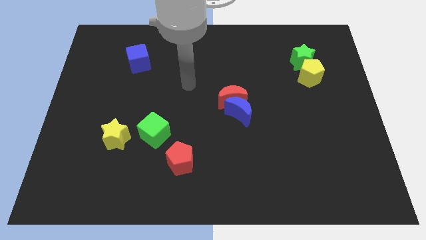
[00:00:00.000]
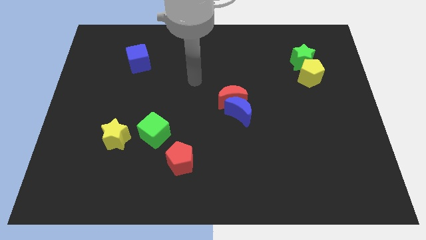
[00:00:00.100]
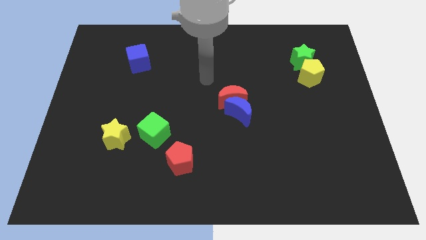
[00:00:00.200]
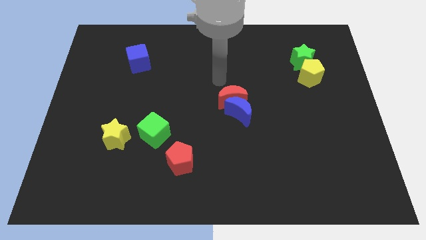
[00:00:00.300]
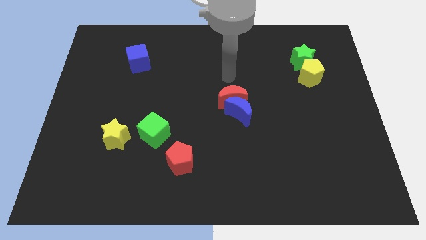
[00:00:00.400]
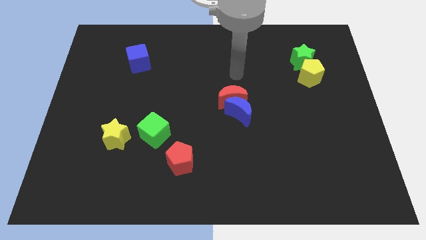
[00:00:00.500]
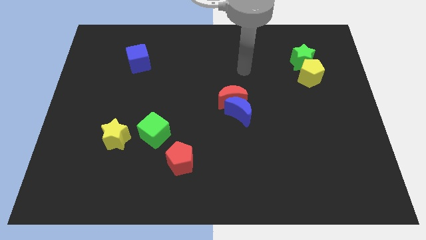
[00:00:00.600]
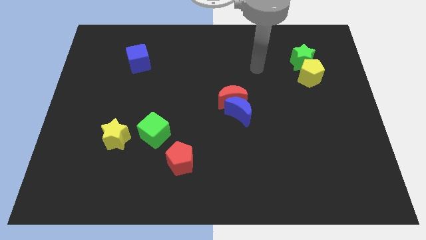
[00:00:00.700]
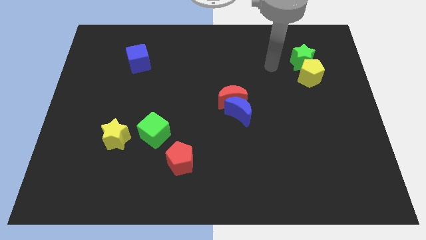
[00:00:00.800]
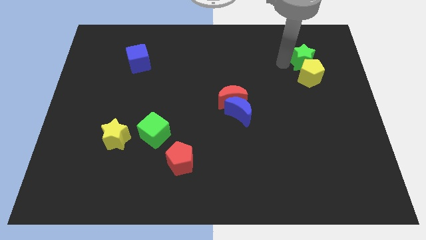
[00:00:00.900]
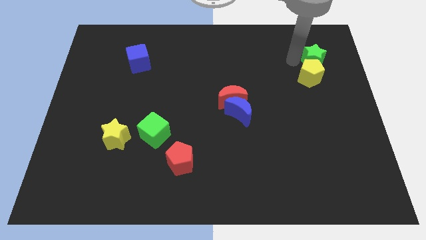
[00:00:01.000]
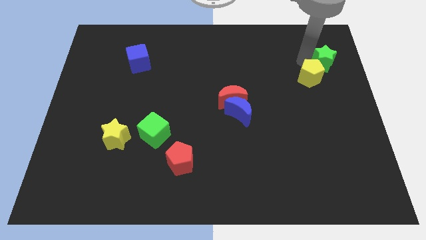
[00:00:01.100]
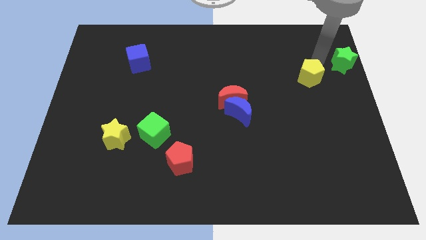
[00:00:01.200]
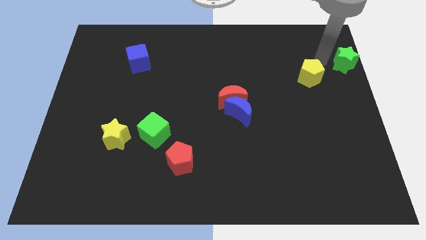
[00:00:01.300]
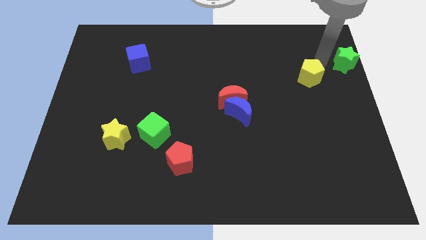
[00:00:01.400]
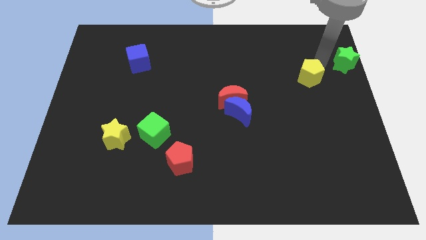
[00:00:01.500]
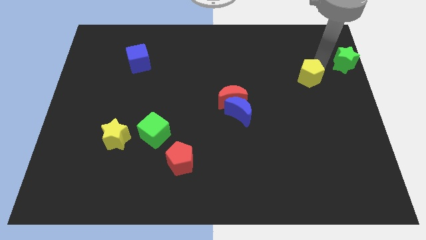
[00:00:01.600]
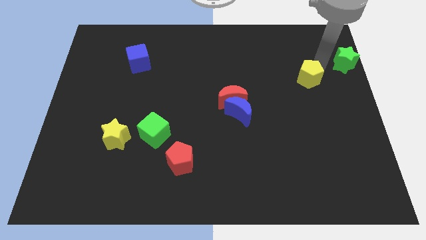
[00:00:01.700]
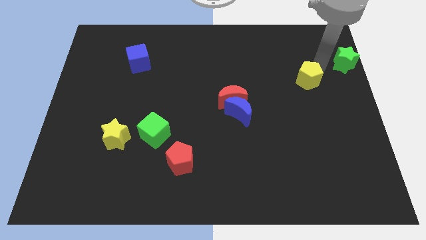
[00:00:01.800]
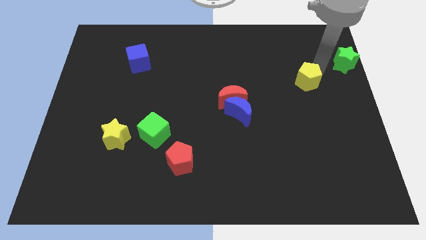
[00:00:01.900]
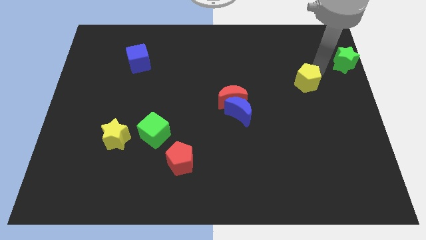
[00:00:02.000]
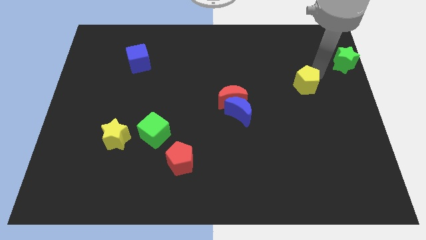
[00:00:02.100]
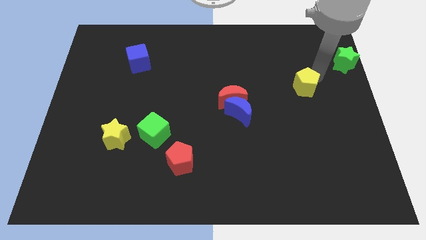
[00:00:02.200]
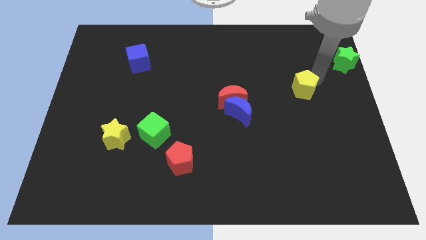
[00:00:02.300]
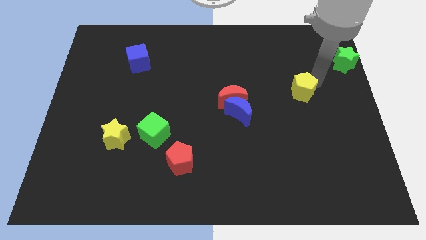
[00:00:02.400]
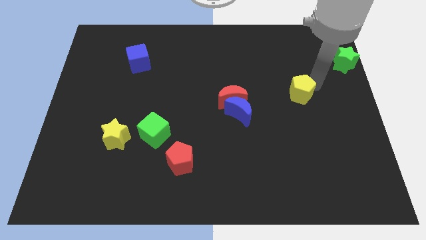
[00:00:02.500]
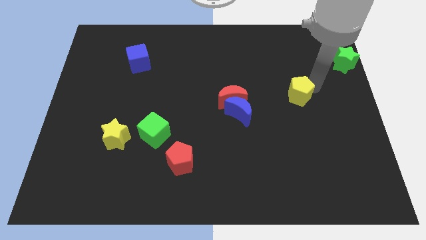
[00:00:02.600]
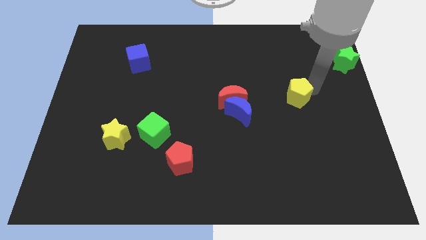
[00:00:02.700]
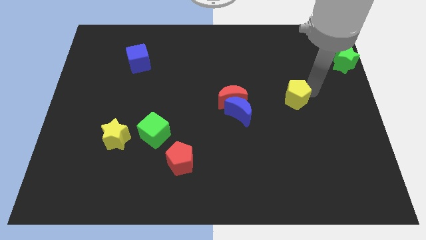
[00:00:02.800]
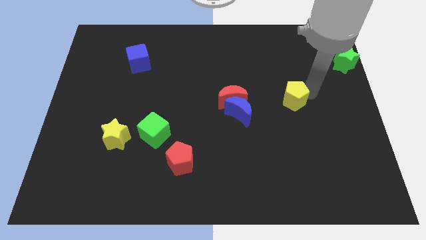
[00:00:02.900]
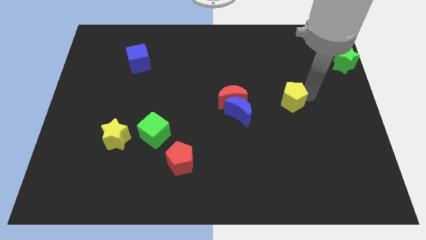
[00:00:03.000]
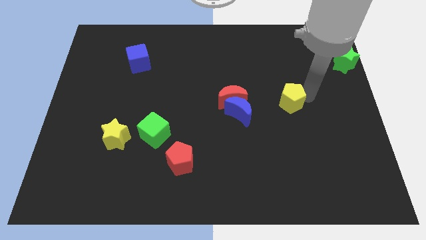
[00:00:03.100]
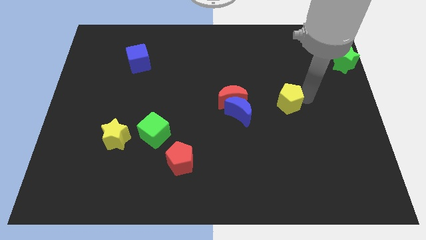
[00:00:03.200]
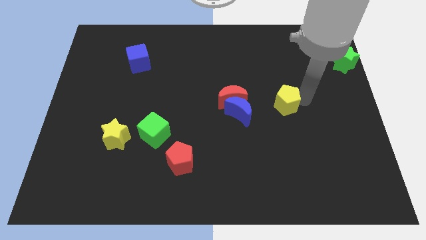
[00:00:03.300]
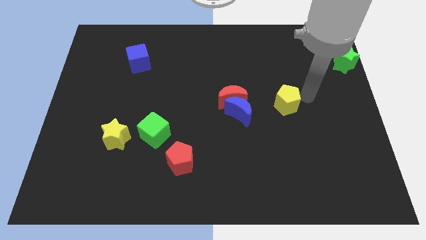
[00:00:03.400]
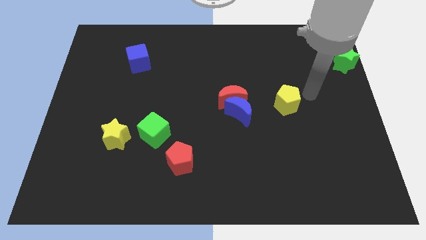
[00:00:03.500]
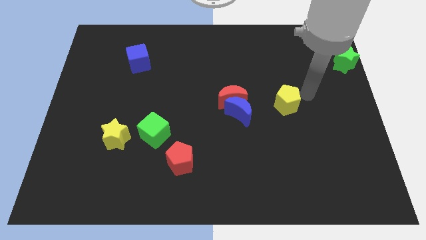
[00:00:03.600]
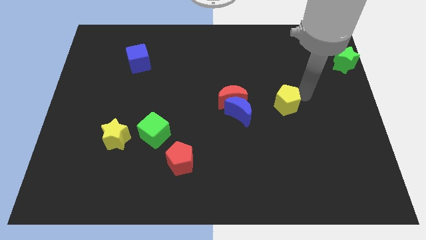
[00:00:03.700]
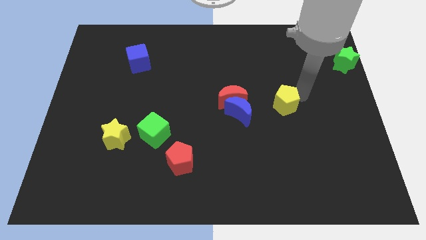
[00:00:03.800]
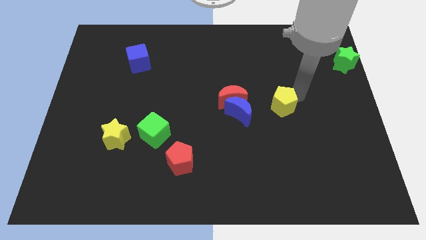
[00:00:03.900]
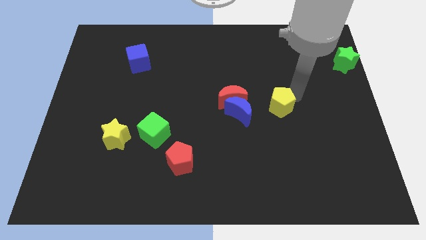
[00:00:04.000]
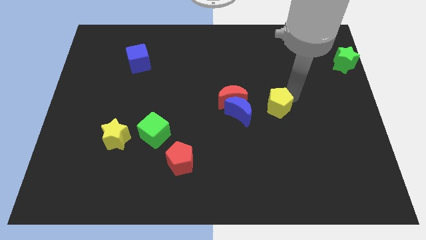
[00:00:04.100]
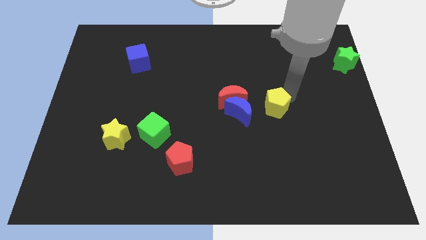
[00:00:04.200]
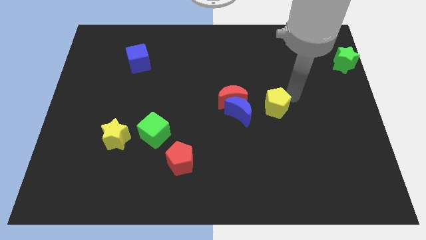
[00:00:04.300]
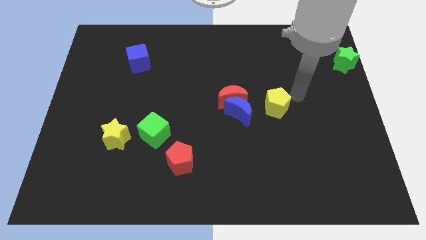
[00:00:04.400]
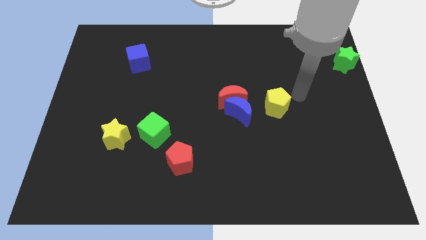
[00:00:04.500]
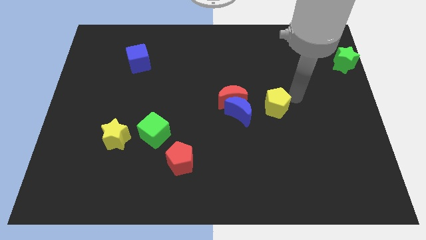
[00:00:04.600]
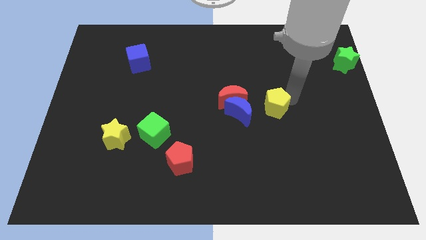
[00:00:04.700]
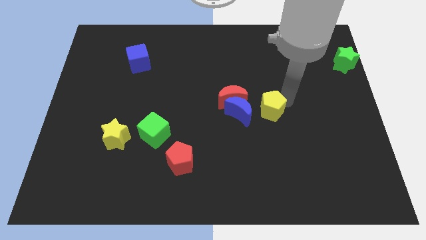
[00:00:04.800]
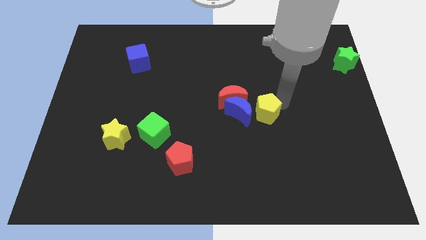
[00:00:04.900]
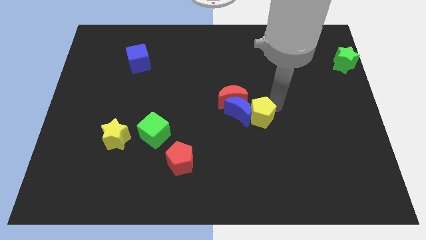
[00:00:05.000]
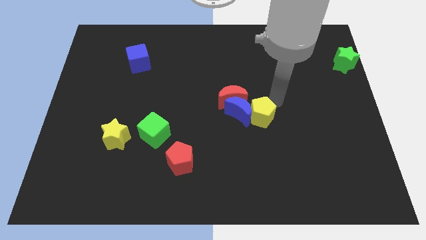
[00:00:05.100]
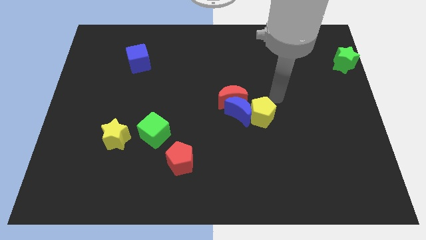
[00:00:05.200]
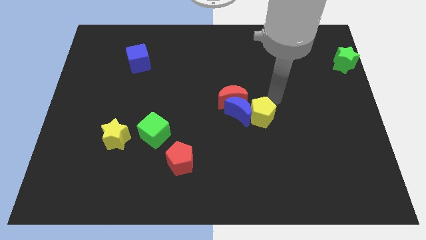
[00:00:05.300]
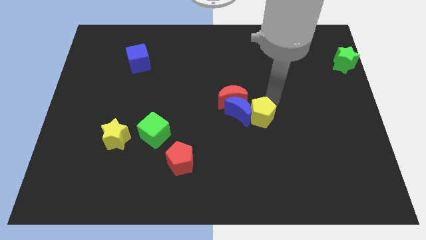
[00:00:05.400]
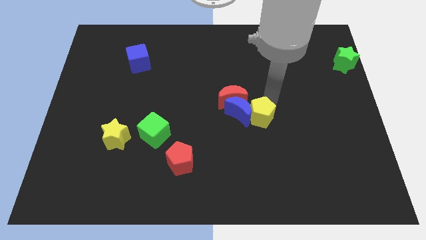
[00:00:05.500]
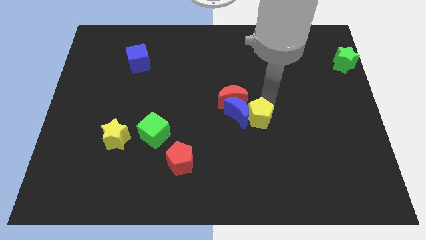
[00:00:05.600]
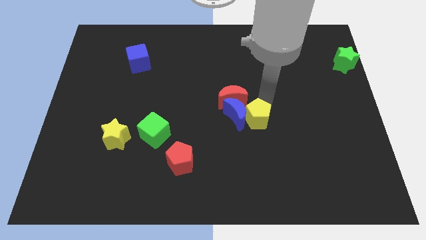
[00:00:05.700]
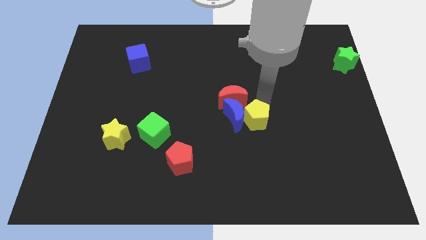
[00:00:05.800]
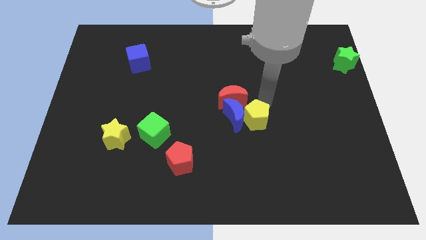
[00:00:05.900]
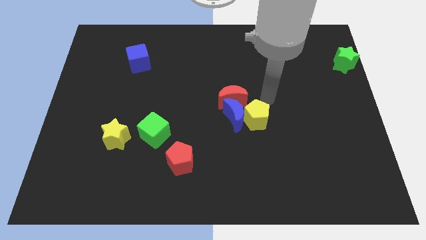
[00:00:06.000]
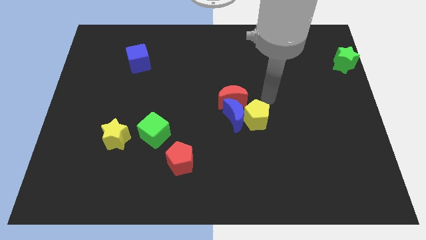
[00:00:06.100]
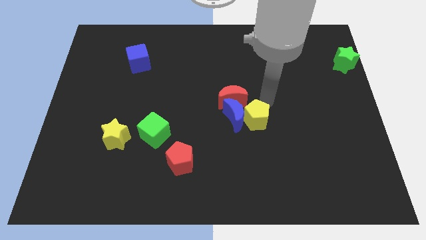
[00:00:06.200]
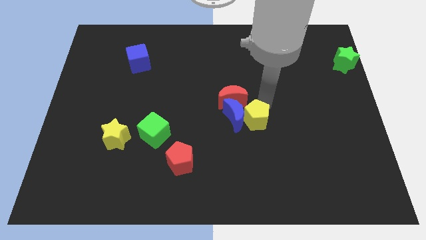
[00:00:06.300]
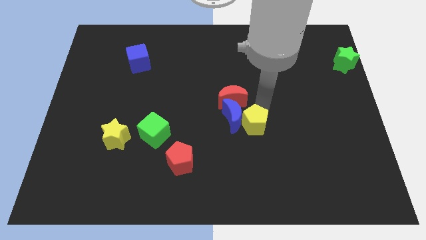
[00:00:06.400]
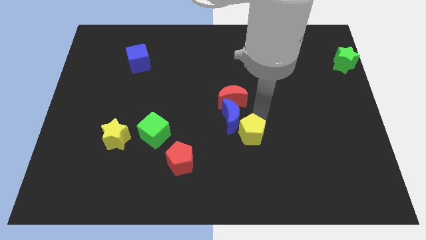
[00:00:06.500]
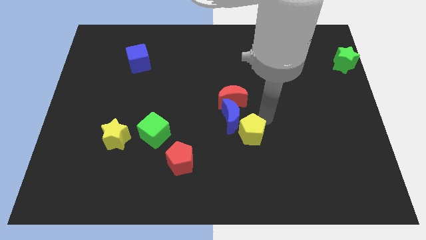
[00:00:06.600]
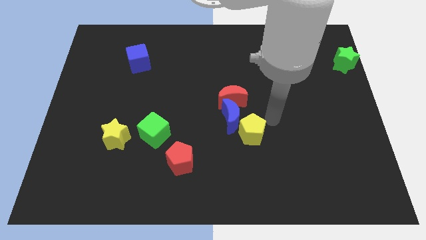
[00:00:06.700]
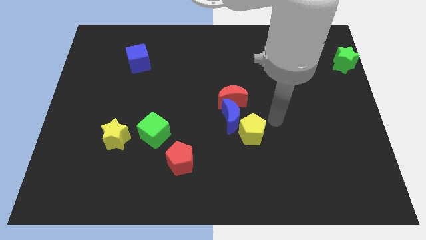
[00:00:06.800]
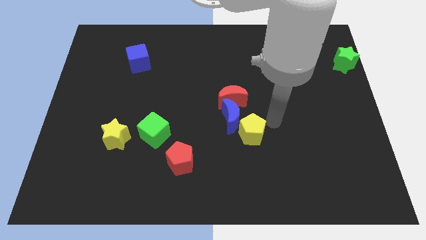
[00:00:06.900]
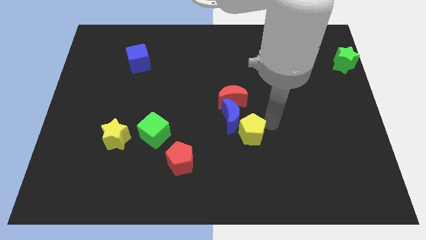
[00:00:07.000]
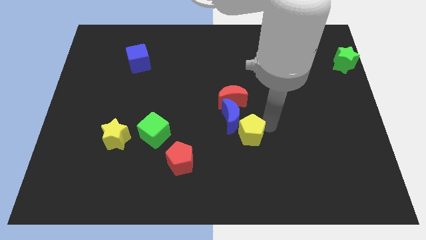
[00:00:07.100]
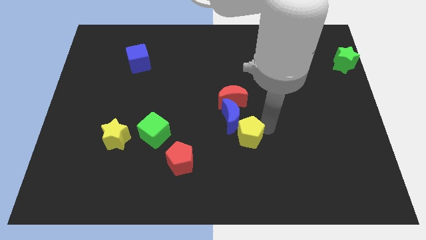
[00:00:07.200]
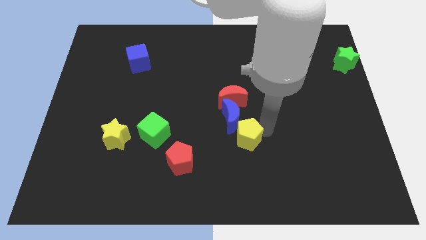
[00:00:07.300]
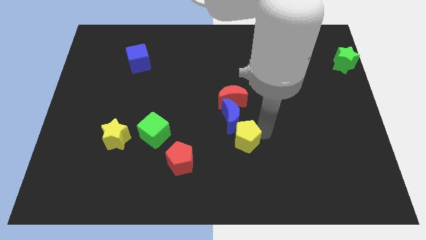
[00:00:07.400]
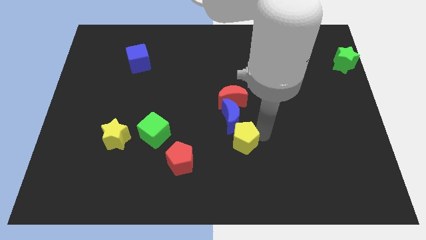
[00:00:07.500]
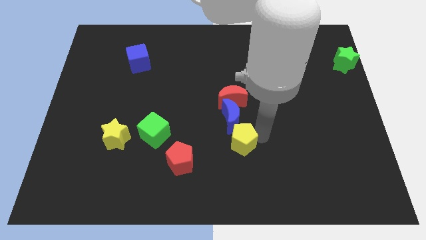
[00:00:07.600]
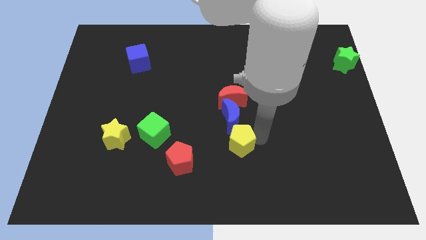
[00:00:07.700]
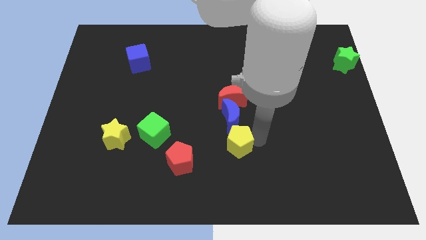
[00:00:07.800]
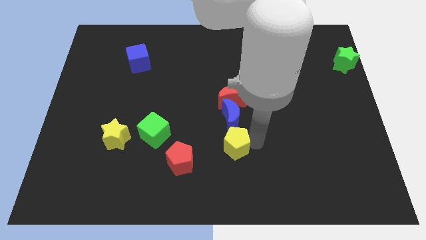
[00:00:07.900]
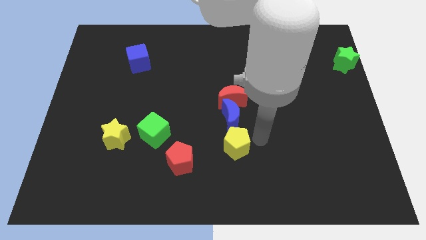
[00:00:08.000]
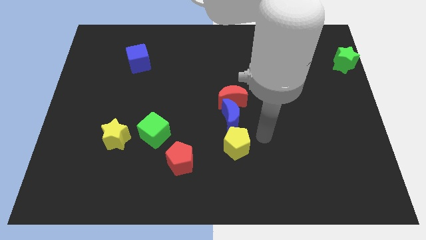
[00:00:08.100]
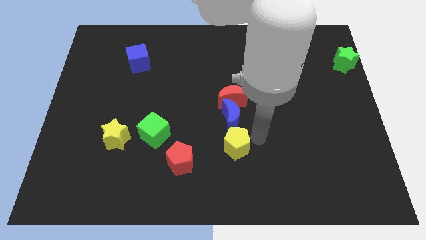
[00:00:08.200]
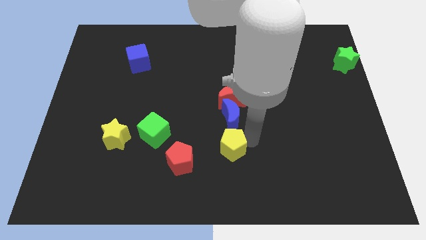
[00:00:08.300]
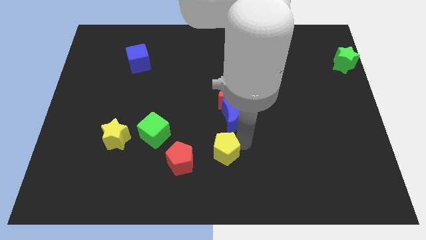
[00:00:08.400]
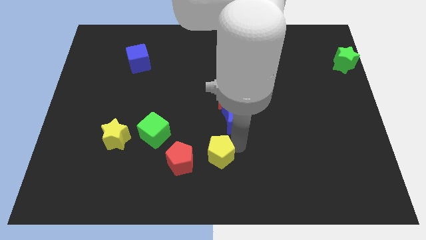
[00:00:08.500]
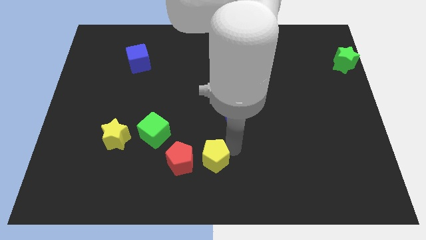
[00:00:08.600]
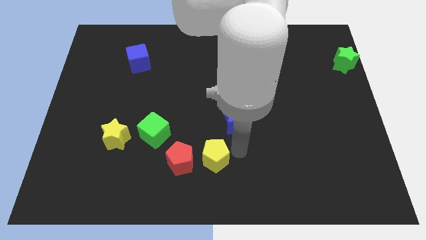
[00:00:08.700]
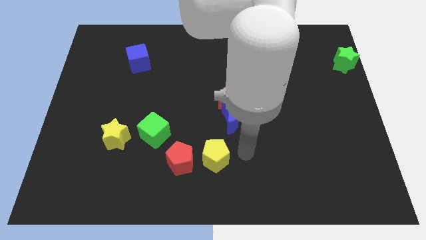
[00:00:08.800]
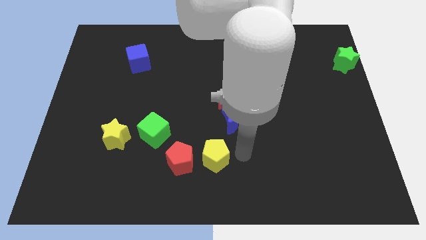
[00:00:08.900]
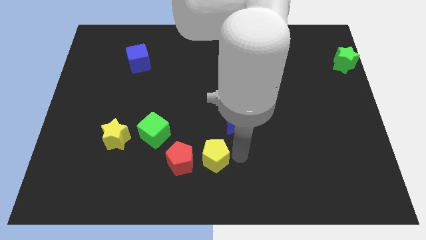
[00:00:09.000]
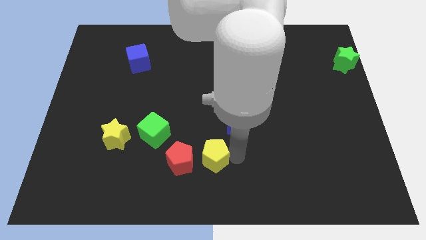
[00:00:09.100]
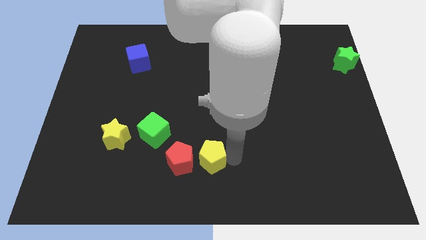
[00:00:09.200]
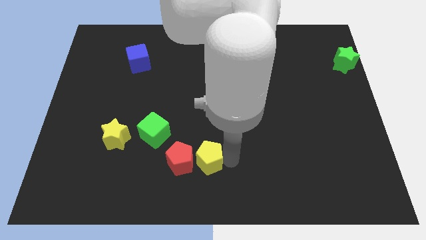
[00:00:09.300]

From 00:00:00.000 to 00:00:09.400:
put the yellow pentagon to the red pentagon
